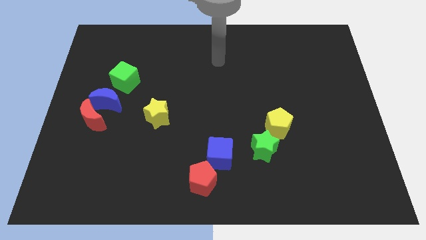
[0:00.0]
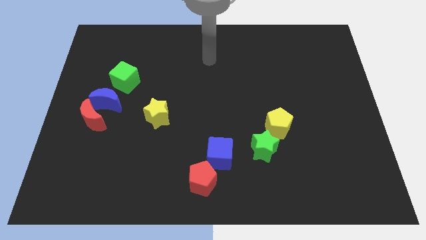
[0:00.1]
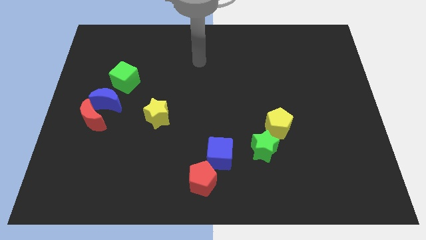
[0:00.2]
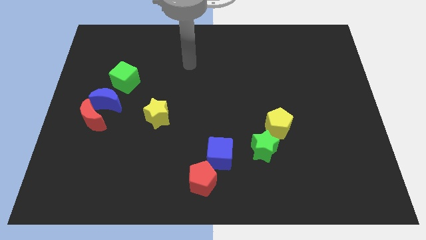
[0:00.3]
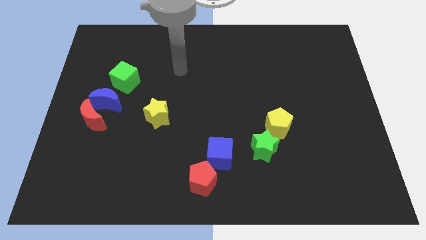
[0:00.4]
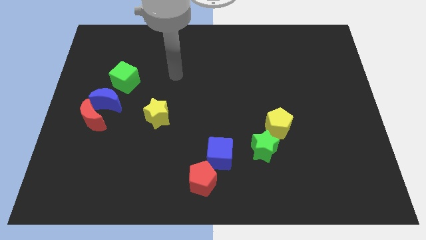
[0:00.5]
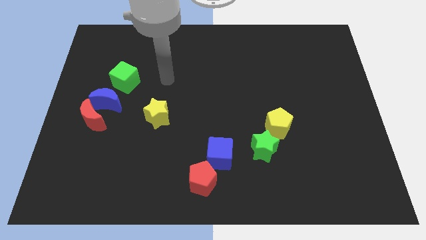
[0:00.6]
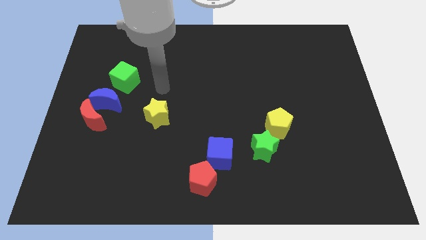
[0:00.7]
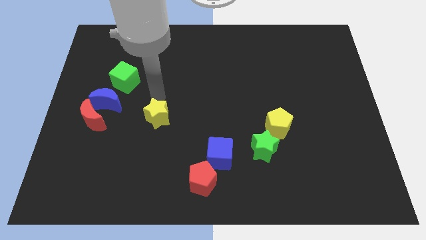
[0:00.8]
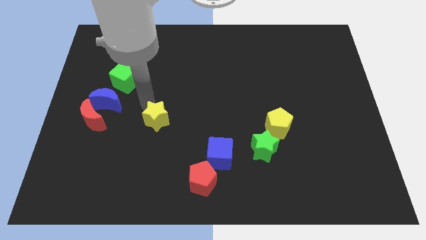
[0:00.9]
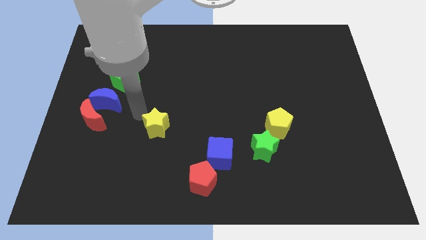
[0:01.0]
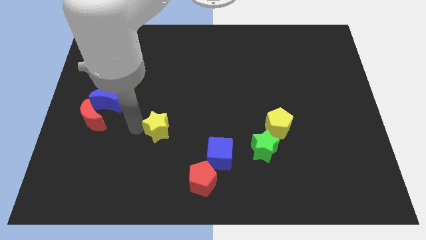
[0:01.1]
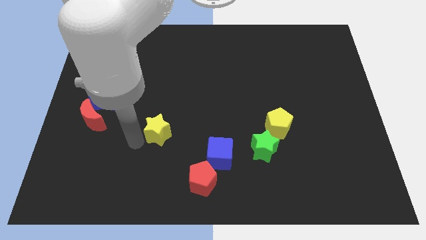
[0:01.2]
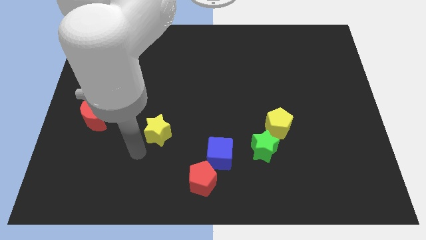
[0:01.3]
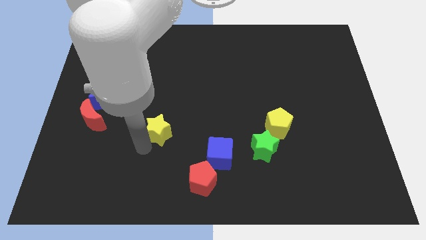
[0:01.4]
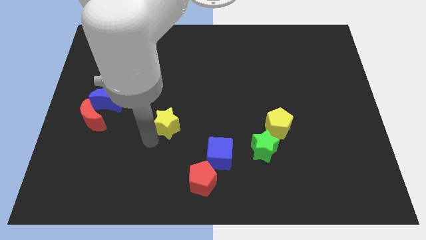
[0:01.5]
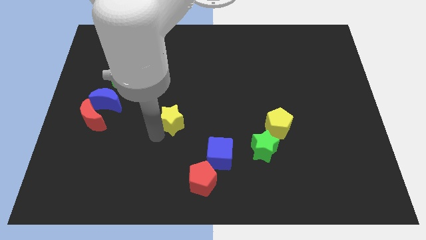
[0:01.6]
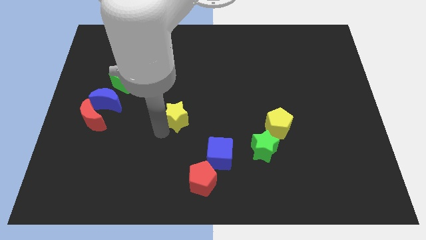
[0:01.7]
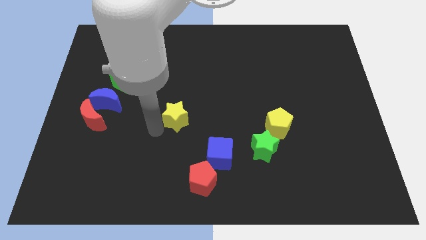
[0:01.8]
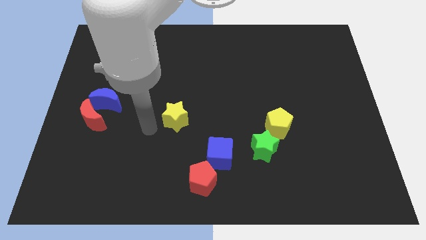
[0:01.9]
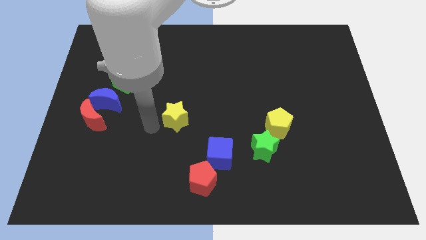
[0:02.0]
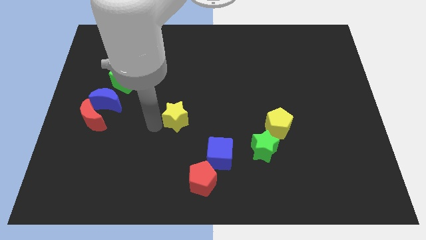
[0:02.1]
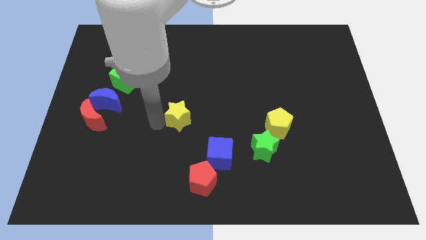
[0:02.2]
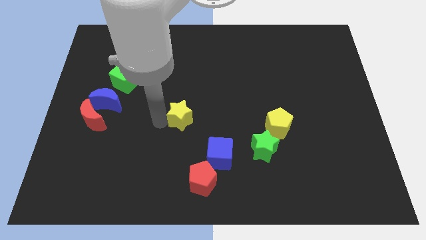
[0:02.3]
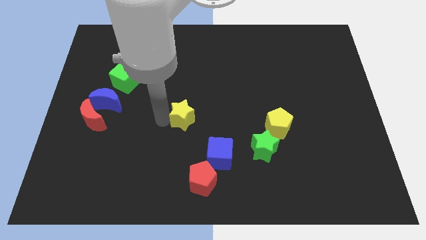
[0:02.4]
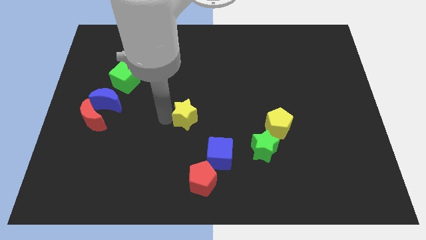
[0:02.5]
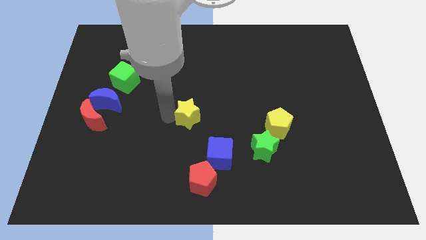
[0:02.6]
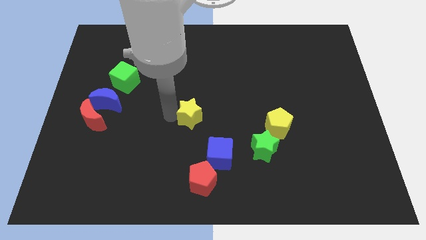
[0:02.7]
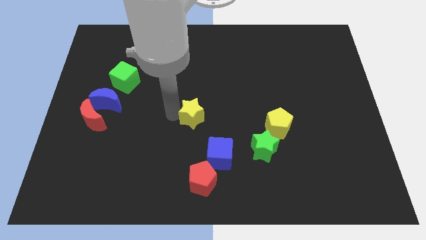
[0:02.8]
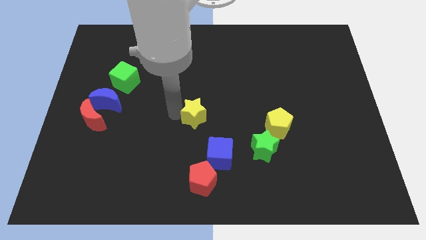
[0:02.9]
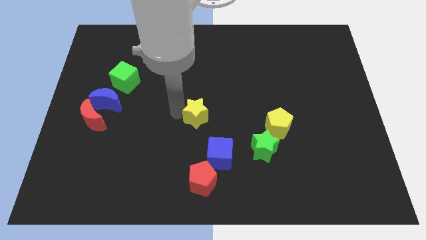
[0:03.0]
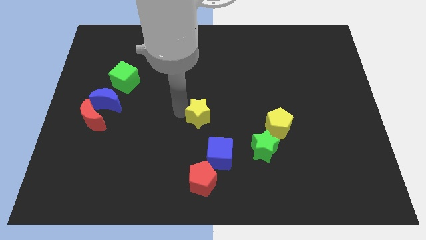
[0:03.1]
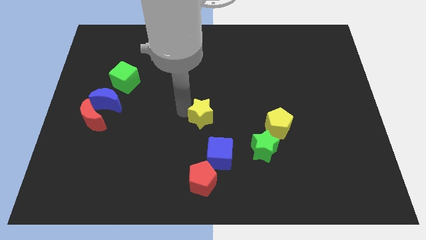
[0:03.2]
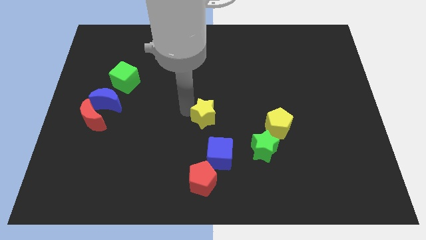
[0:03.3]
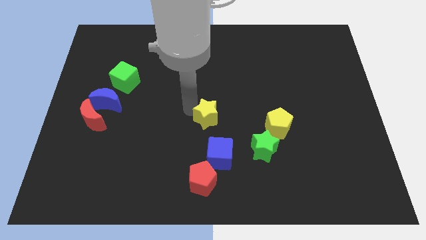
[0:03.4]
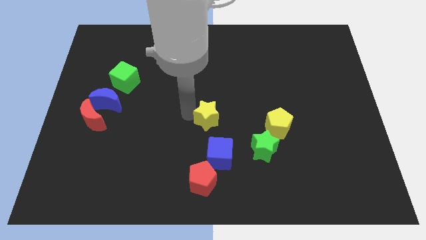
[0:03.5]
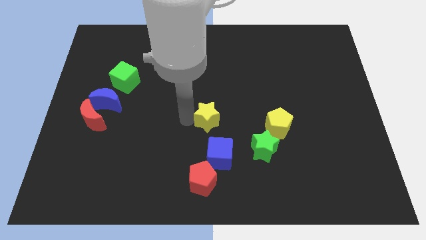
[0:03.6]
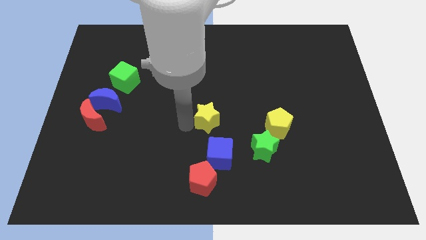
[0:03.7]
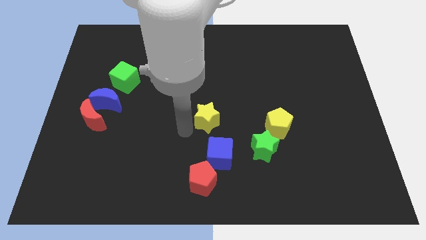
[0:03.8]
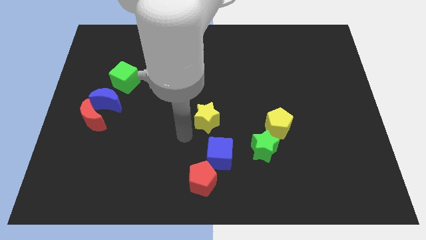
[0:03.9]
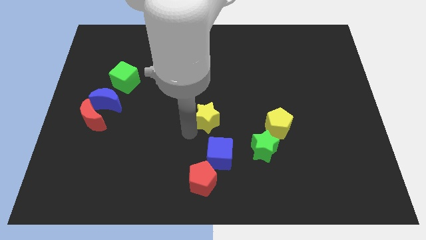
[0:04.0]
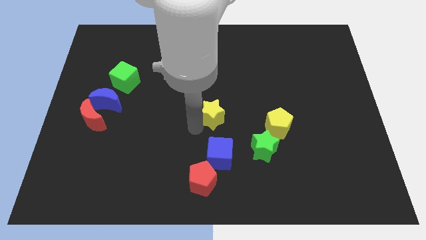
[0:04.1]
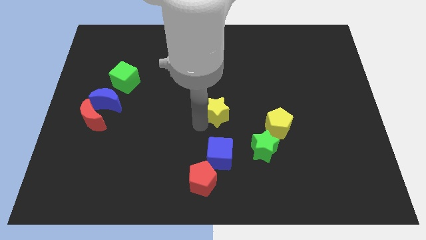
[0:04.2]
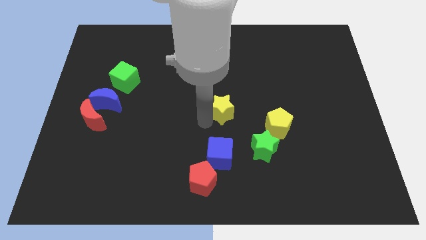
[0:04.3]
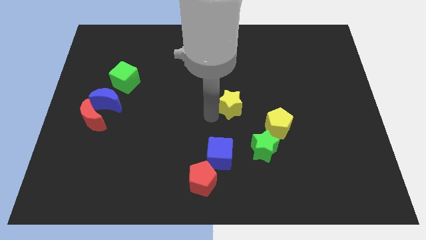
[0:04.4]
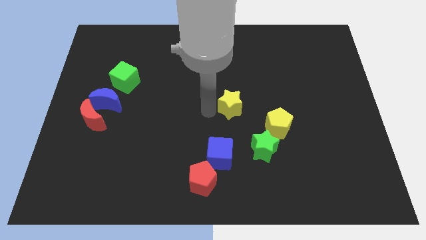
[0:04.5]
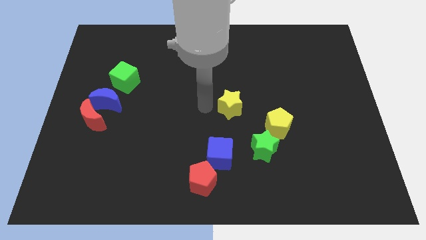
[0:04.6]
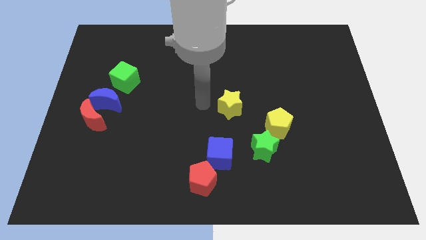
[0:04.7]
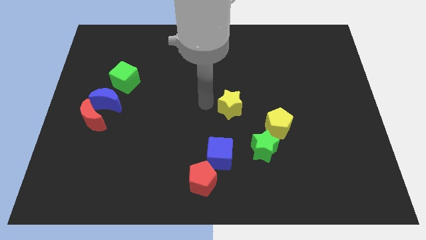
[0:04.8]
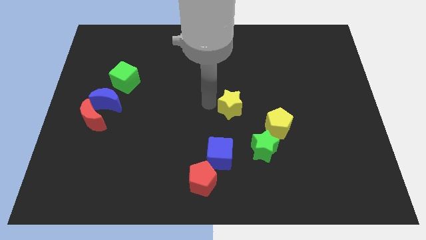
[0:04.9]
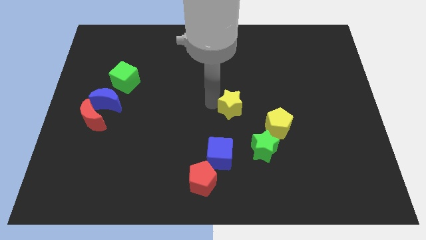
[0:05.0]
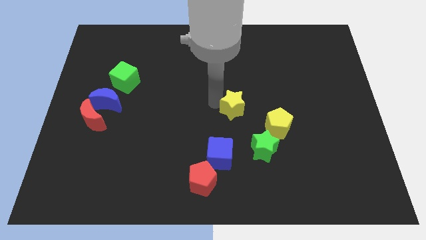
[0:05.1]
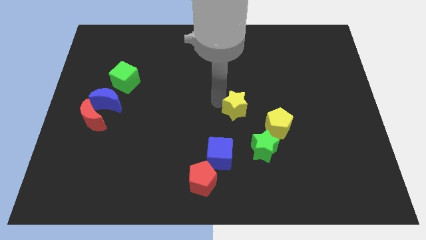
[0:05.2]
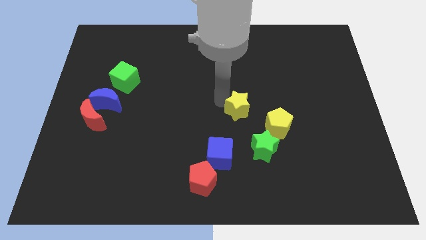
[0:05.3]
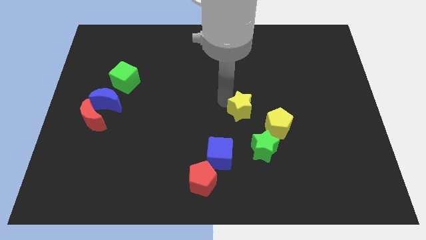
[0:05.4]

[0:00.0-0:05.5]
move the yellow star to the top side of the green star

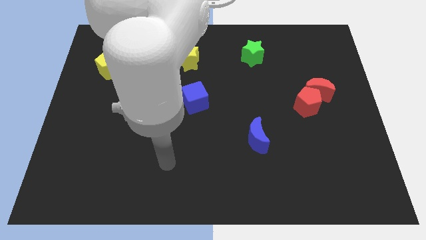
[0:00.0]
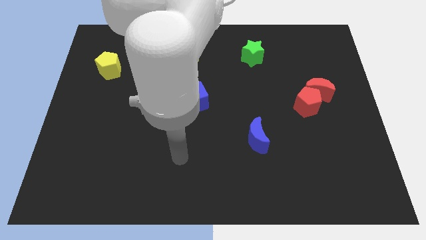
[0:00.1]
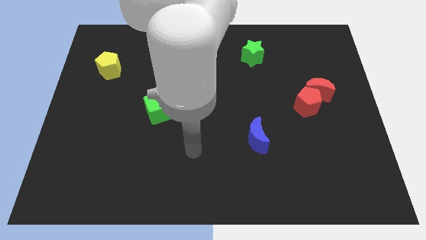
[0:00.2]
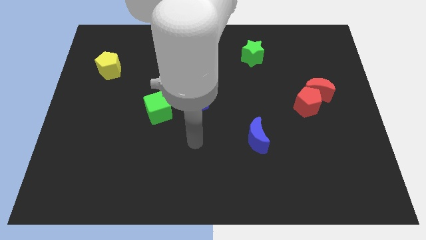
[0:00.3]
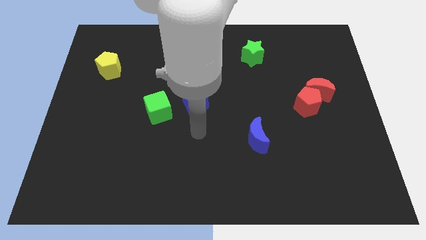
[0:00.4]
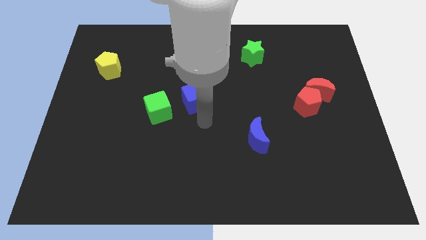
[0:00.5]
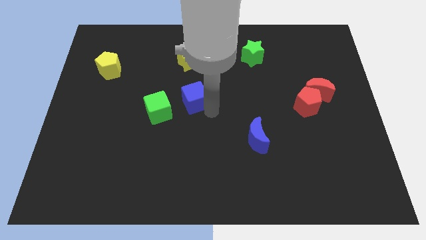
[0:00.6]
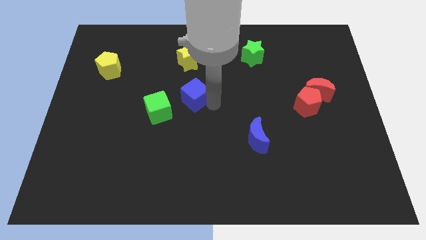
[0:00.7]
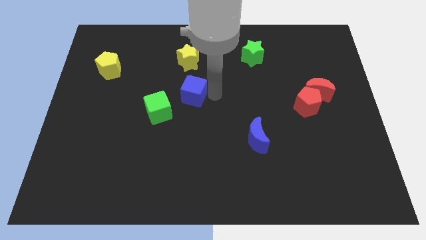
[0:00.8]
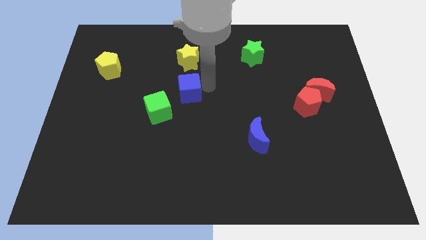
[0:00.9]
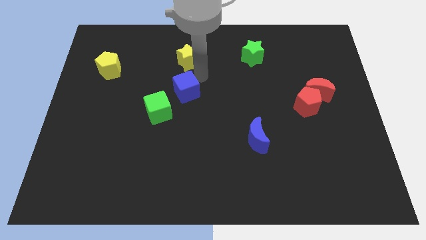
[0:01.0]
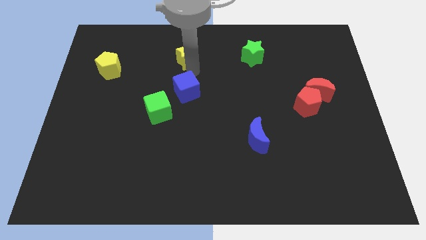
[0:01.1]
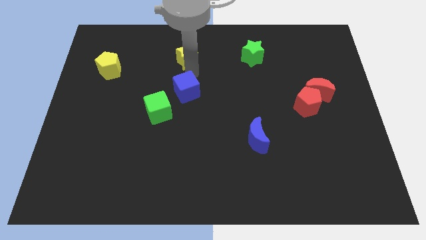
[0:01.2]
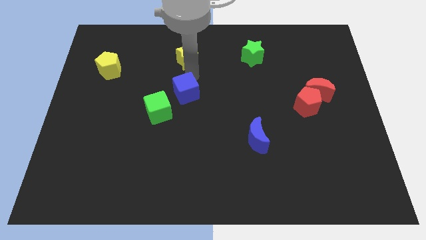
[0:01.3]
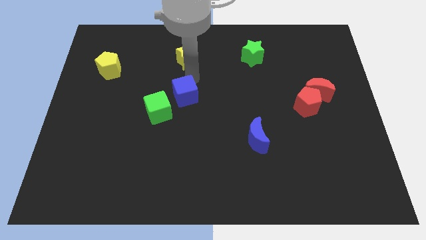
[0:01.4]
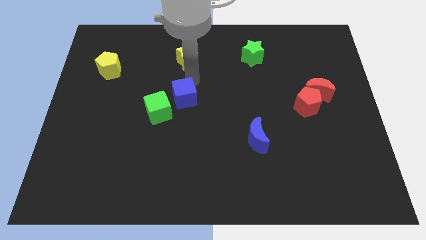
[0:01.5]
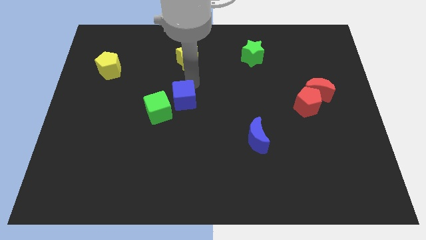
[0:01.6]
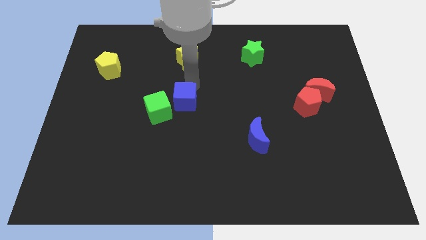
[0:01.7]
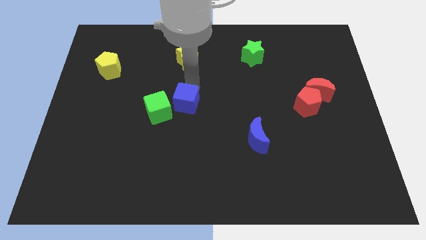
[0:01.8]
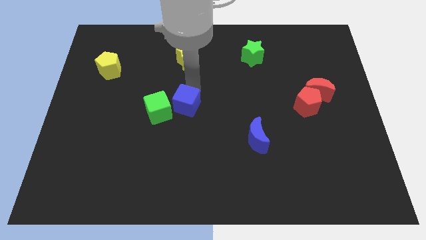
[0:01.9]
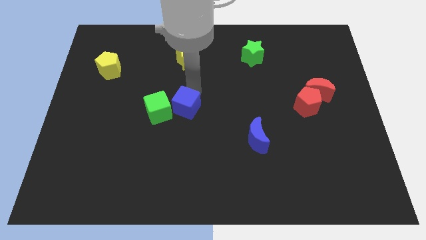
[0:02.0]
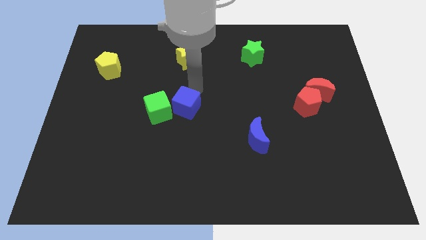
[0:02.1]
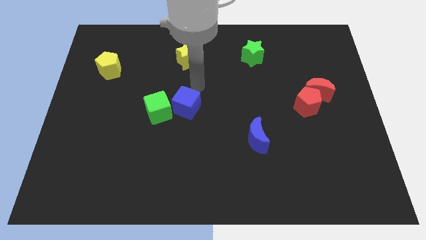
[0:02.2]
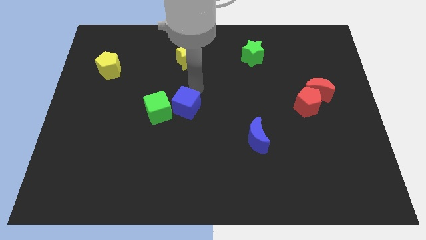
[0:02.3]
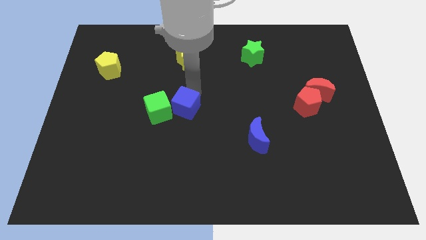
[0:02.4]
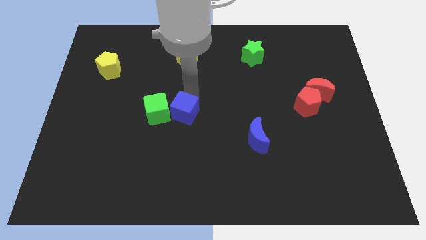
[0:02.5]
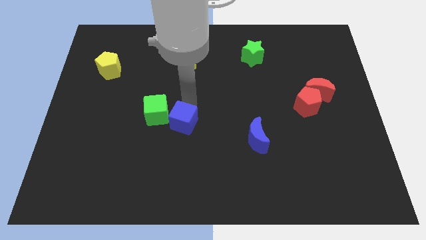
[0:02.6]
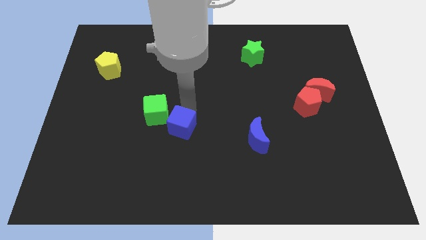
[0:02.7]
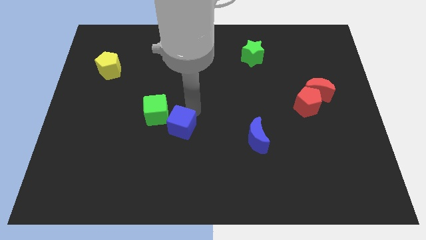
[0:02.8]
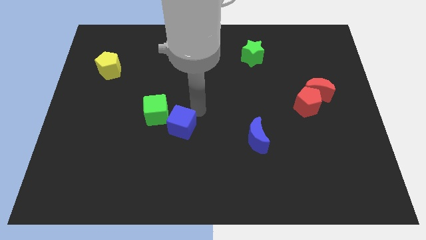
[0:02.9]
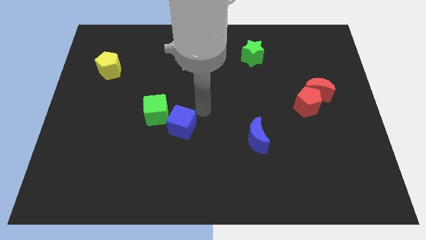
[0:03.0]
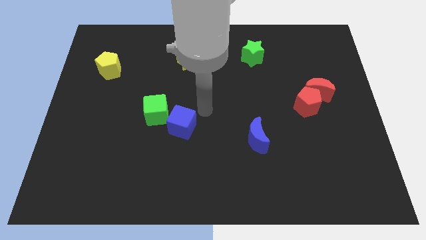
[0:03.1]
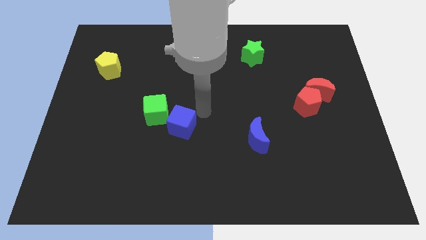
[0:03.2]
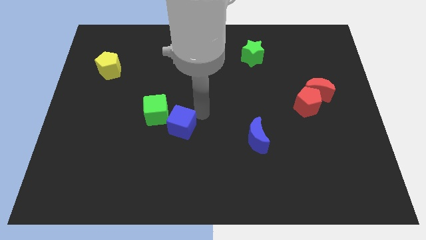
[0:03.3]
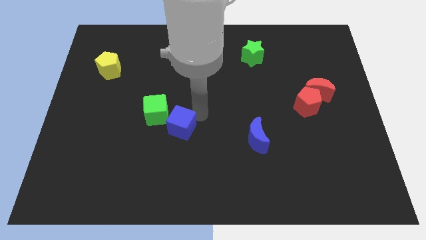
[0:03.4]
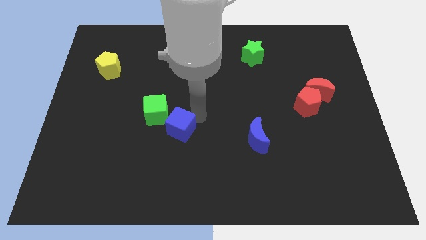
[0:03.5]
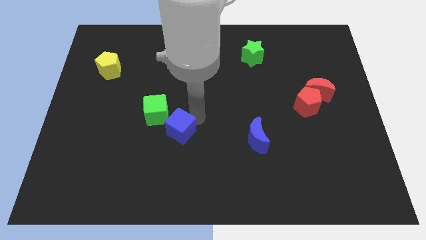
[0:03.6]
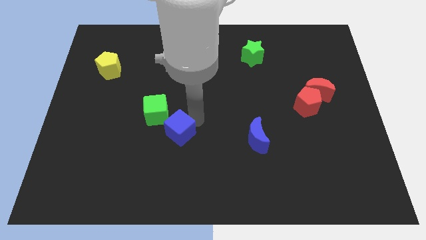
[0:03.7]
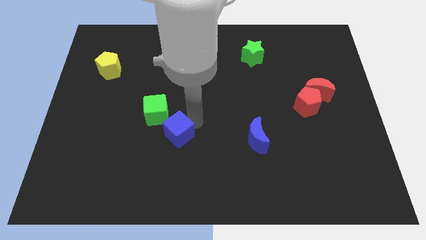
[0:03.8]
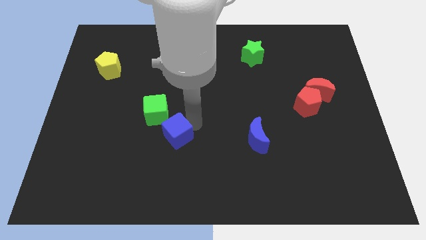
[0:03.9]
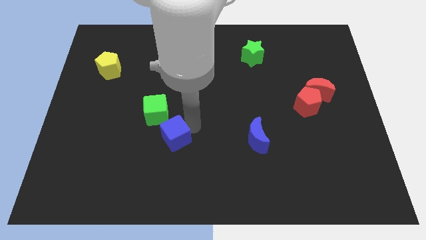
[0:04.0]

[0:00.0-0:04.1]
push the blue cube to the bottom side of the green cube
